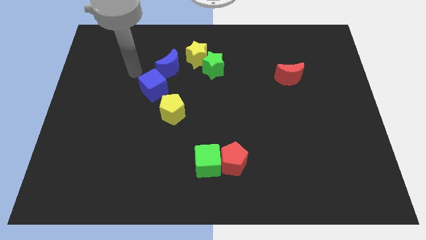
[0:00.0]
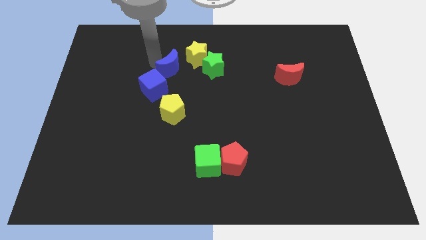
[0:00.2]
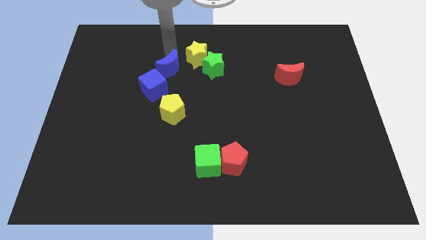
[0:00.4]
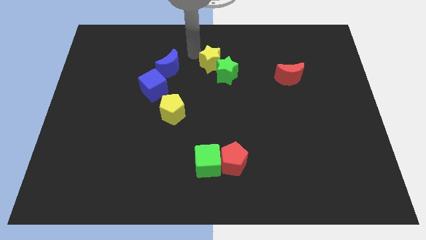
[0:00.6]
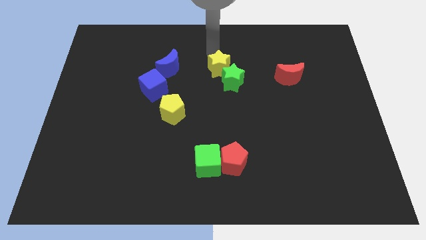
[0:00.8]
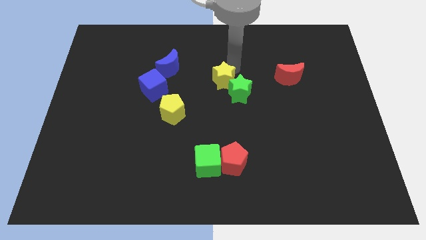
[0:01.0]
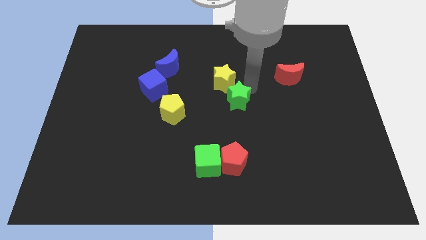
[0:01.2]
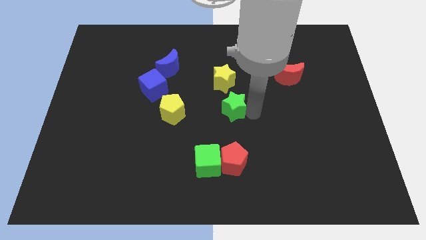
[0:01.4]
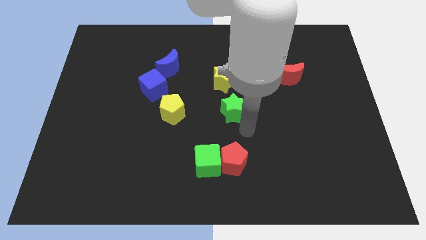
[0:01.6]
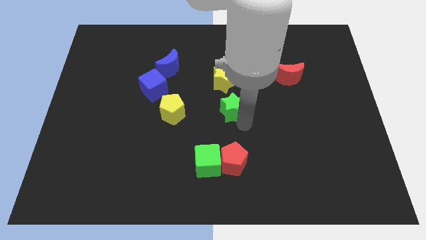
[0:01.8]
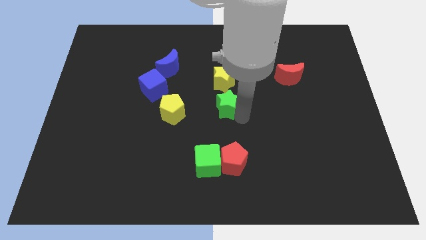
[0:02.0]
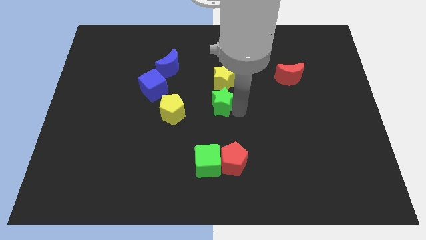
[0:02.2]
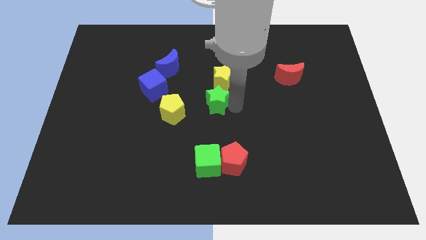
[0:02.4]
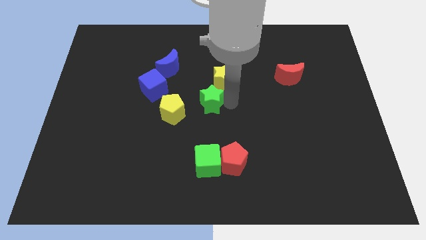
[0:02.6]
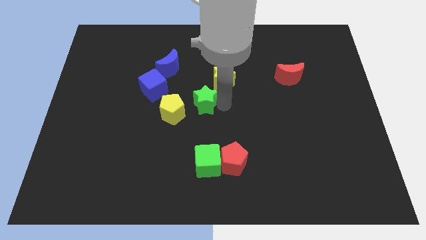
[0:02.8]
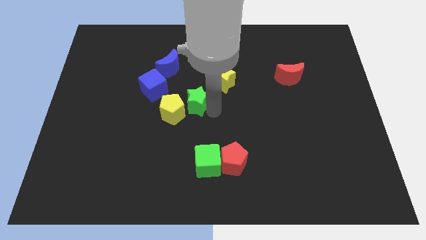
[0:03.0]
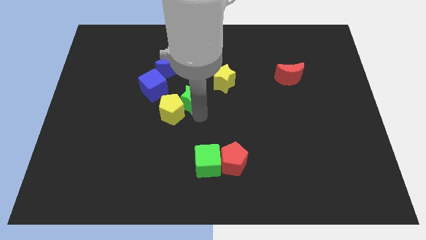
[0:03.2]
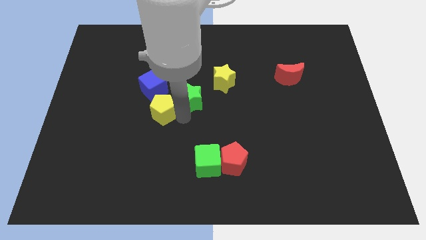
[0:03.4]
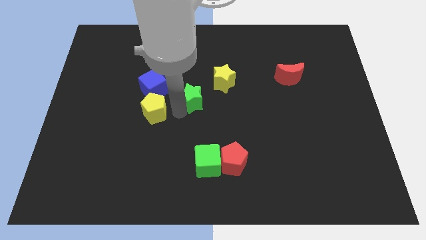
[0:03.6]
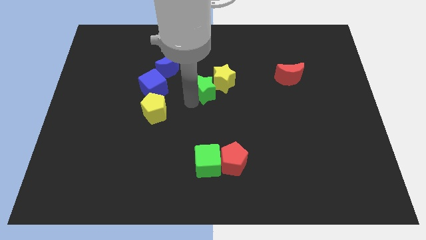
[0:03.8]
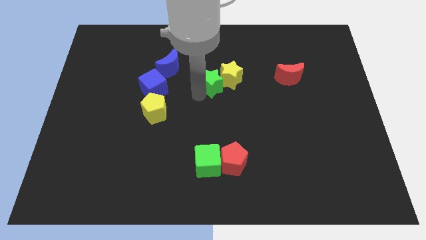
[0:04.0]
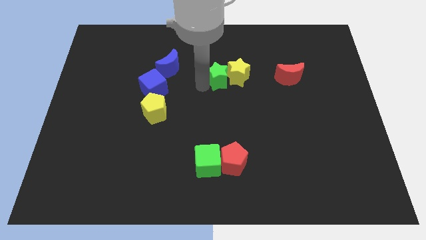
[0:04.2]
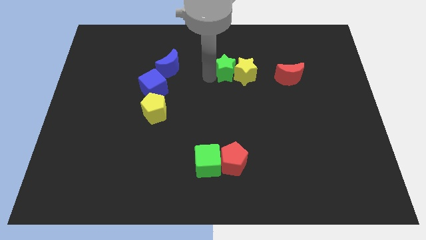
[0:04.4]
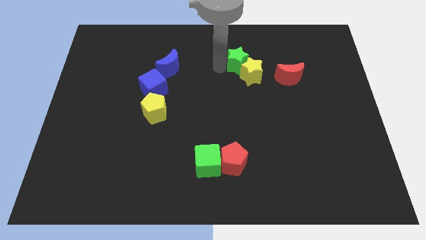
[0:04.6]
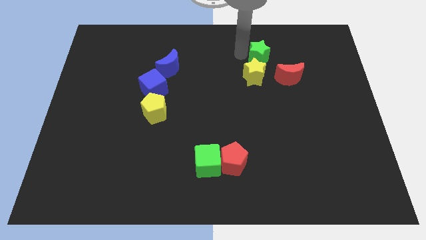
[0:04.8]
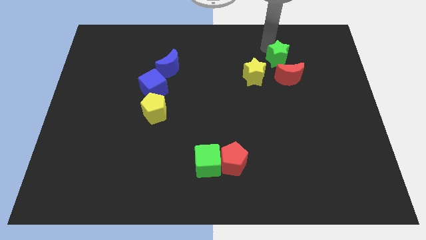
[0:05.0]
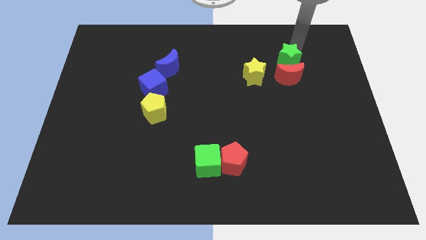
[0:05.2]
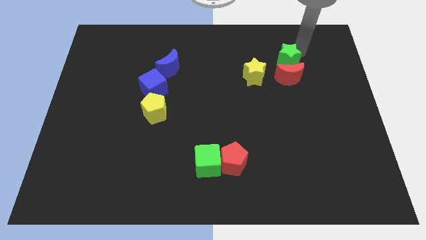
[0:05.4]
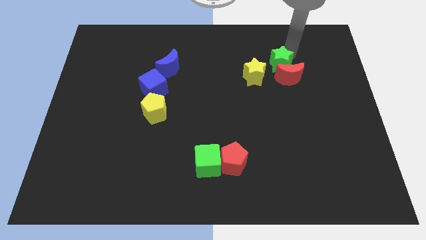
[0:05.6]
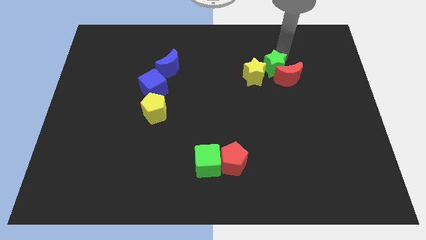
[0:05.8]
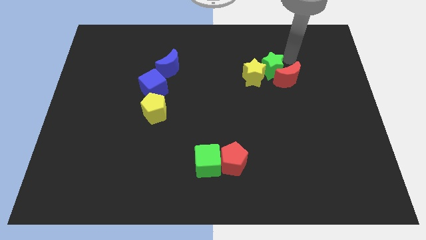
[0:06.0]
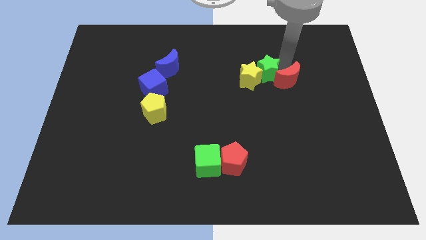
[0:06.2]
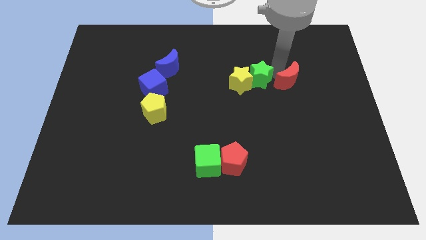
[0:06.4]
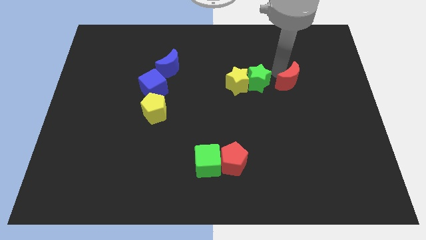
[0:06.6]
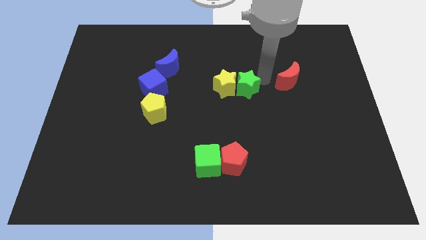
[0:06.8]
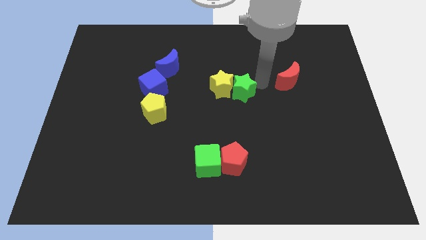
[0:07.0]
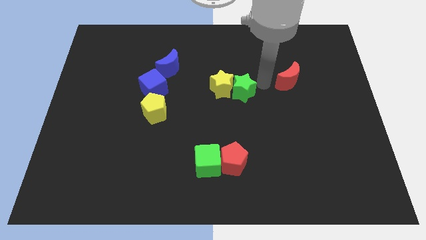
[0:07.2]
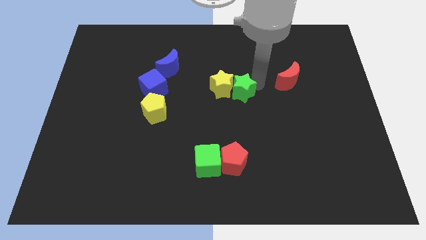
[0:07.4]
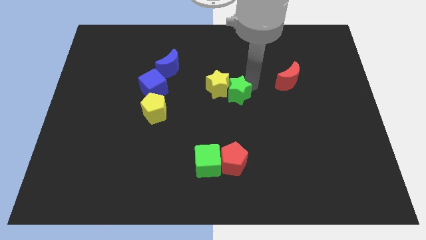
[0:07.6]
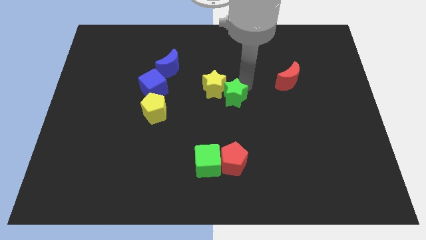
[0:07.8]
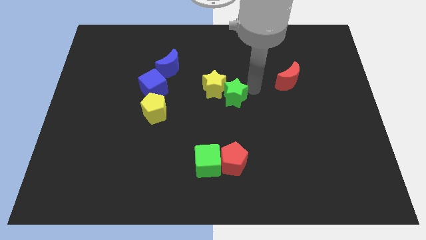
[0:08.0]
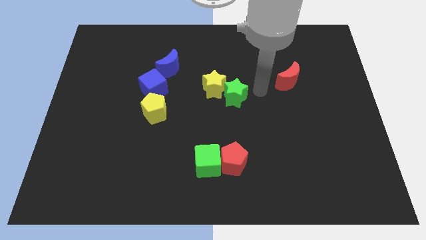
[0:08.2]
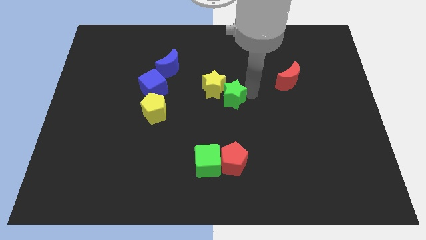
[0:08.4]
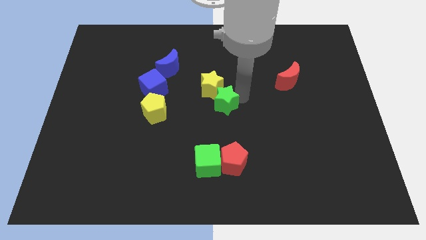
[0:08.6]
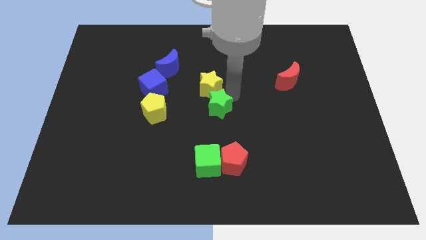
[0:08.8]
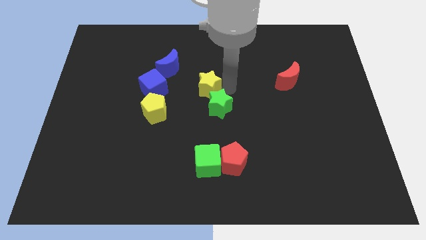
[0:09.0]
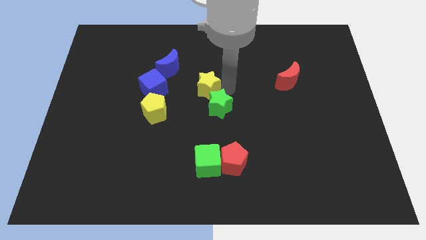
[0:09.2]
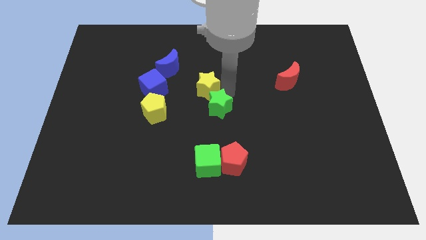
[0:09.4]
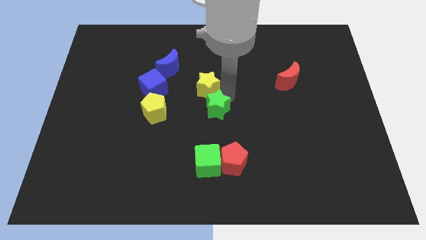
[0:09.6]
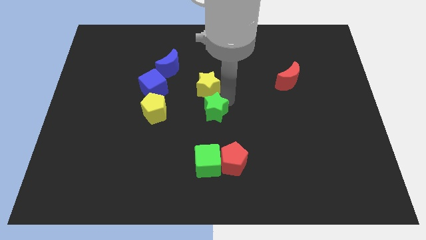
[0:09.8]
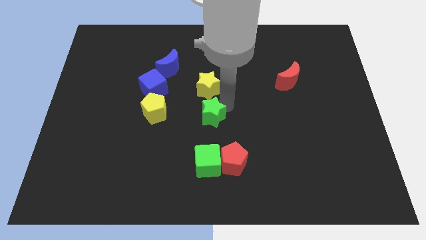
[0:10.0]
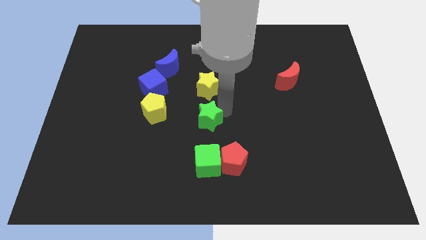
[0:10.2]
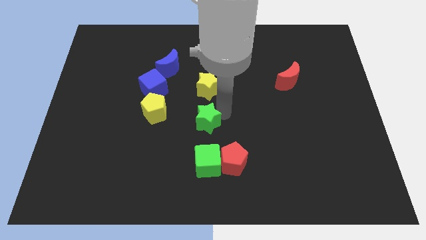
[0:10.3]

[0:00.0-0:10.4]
move the green star diagonally up and to the left of the red pentagon
